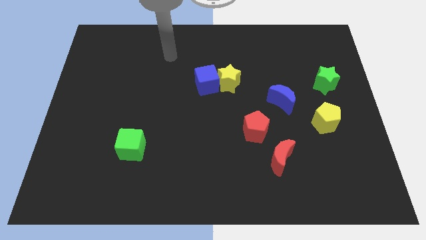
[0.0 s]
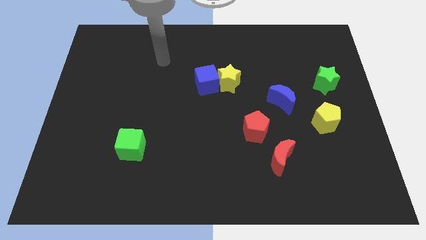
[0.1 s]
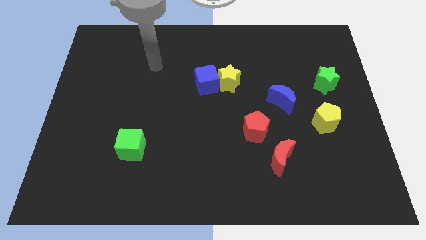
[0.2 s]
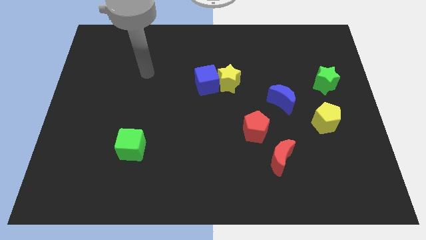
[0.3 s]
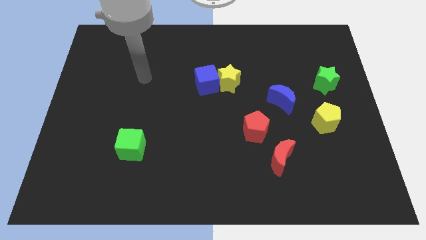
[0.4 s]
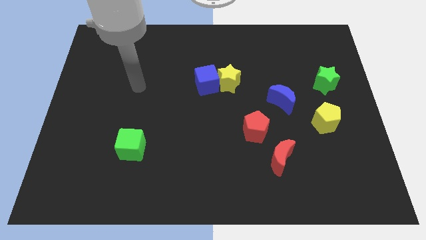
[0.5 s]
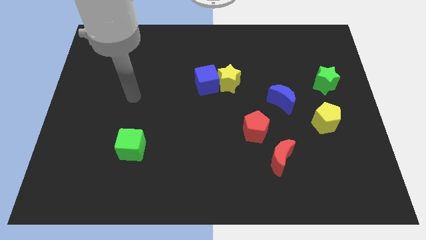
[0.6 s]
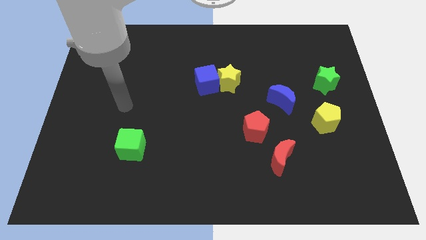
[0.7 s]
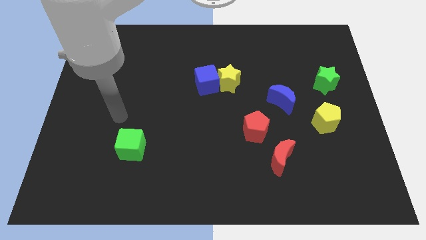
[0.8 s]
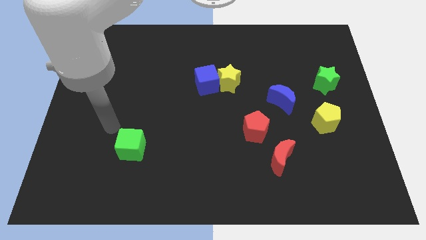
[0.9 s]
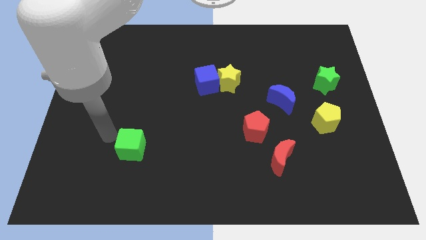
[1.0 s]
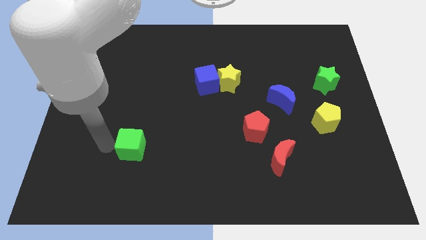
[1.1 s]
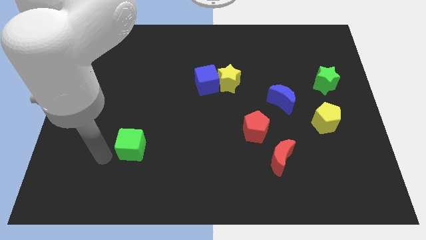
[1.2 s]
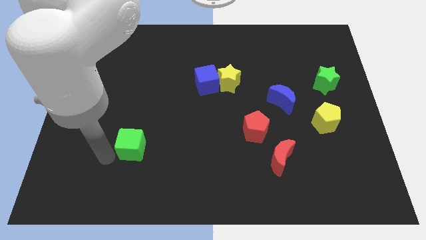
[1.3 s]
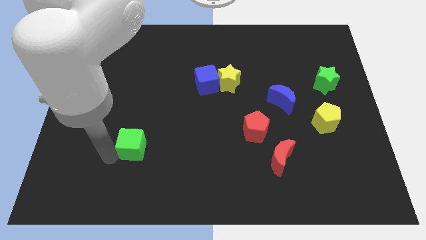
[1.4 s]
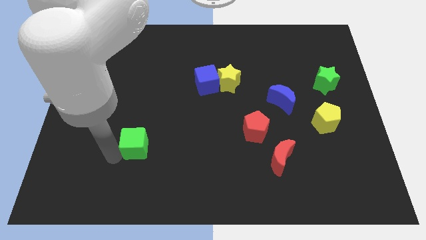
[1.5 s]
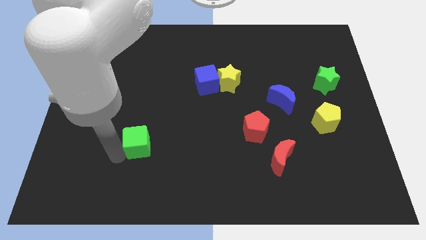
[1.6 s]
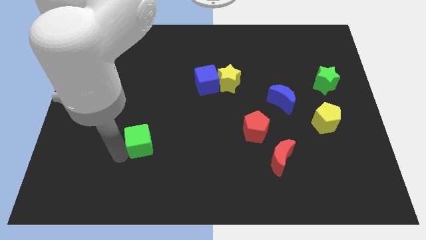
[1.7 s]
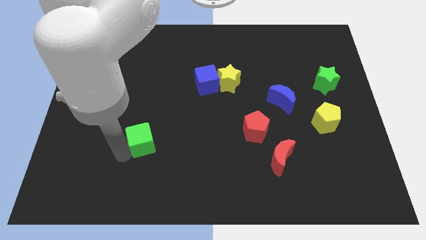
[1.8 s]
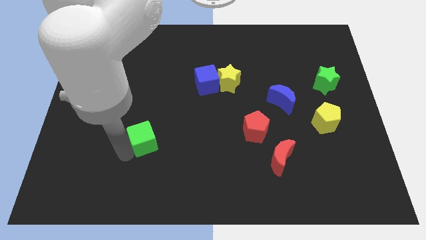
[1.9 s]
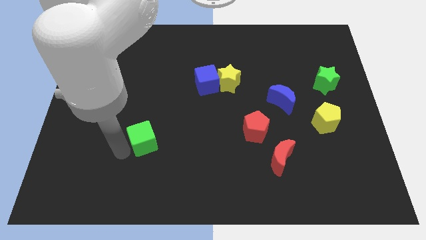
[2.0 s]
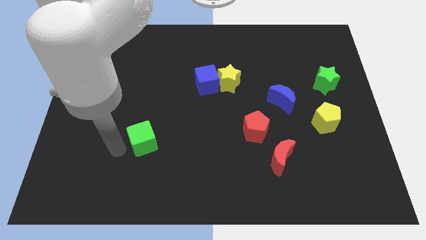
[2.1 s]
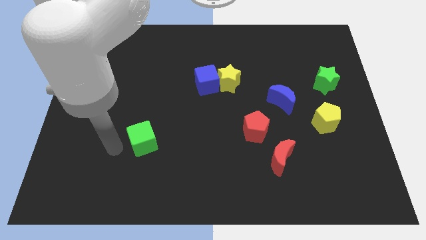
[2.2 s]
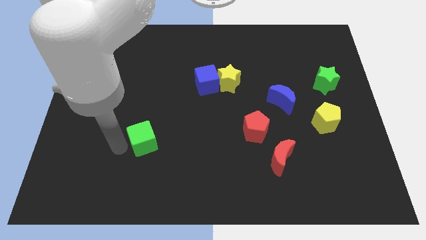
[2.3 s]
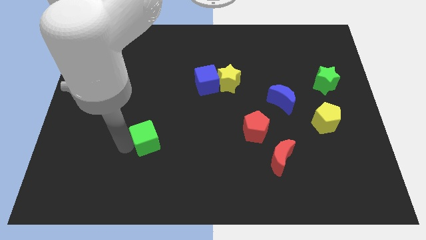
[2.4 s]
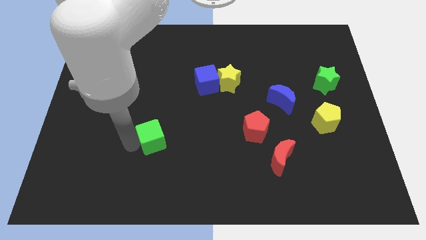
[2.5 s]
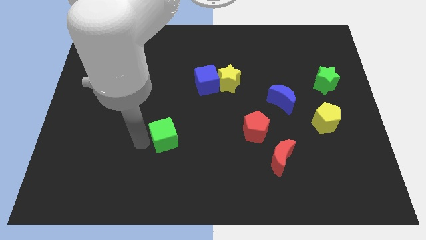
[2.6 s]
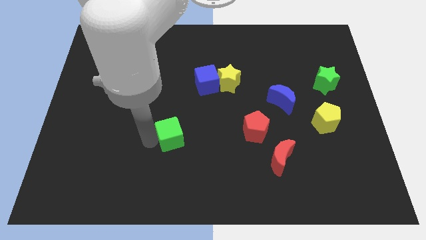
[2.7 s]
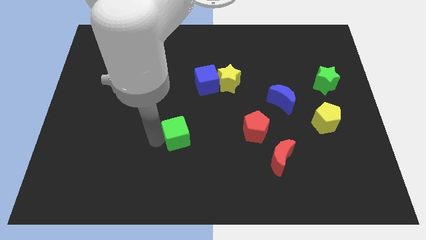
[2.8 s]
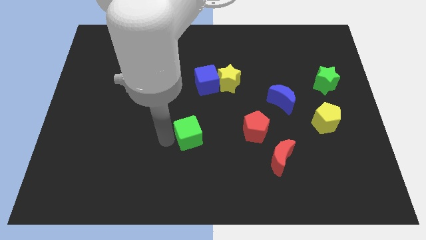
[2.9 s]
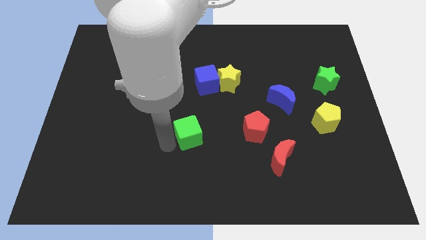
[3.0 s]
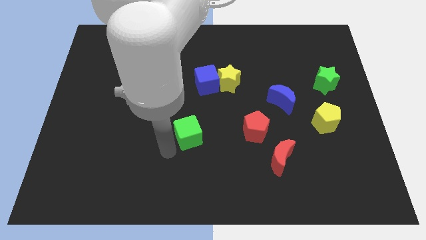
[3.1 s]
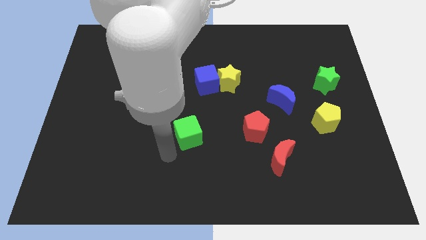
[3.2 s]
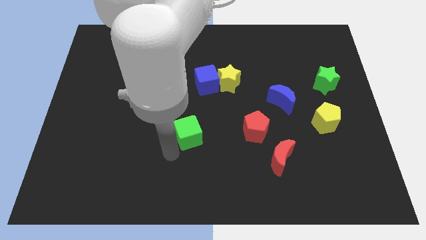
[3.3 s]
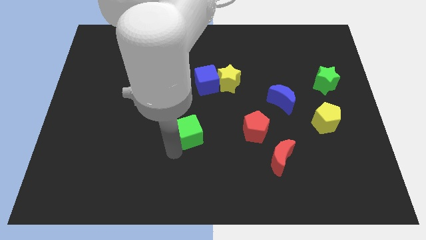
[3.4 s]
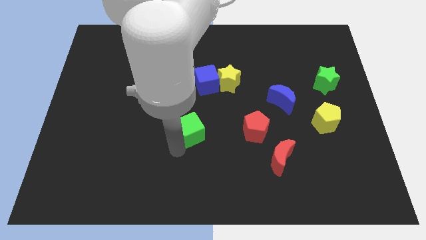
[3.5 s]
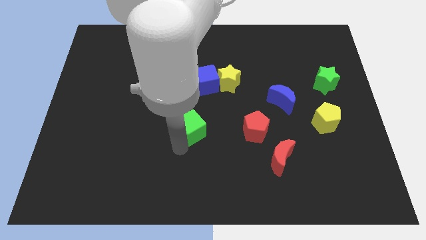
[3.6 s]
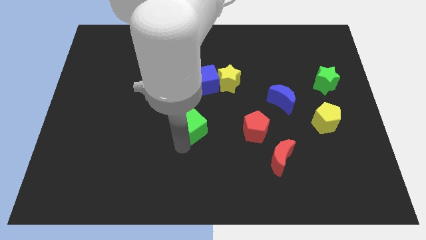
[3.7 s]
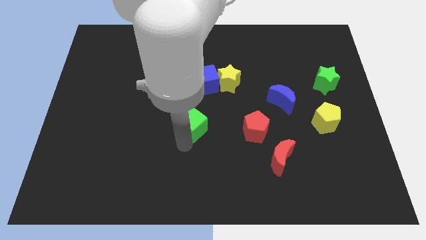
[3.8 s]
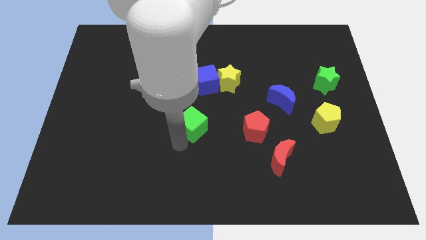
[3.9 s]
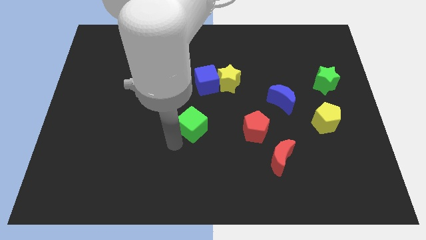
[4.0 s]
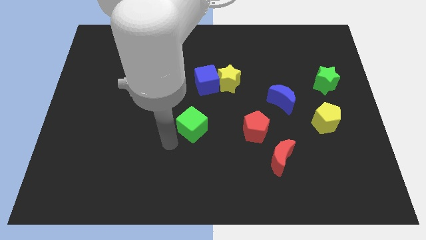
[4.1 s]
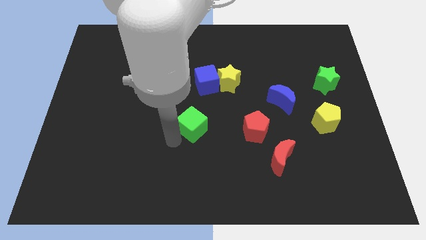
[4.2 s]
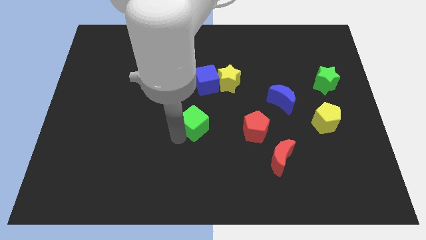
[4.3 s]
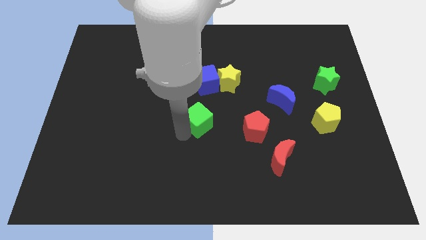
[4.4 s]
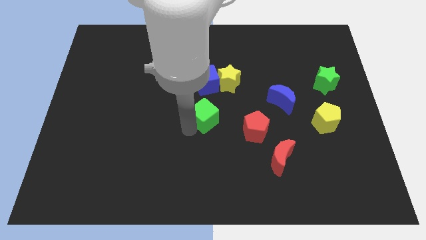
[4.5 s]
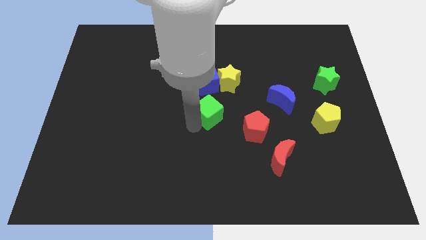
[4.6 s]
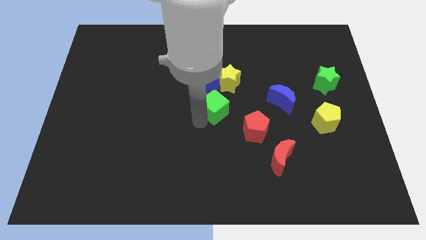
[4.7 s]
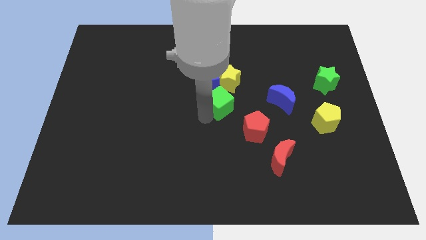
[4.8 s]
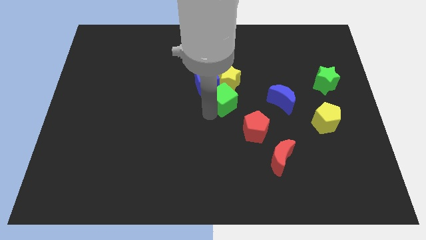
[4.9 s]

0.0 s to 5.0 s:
move the green cube to the yellow star

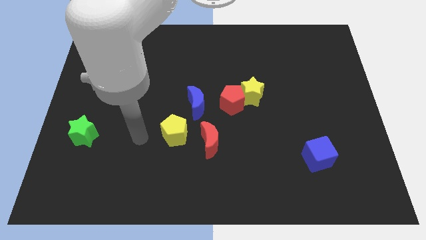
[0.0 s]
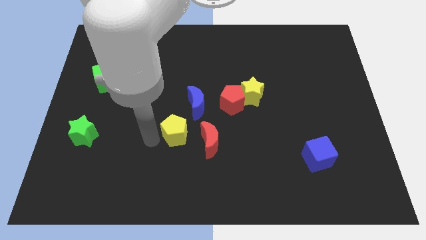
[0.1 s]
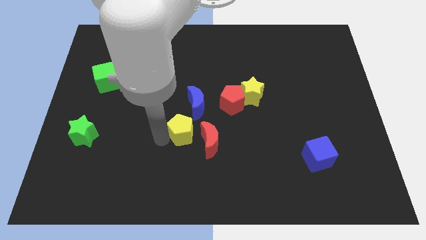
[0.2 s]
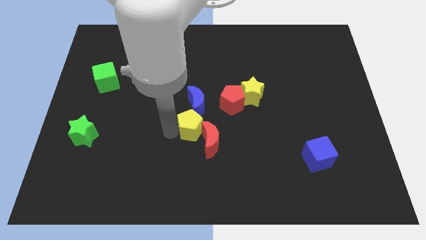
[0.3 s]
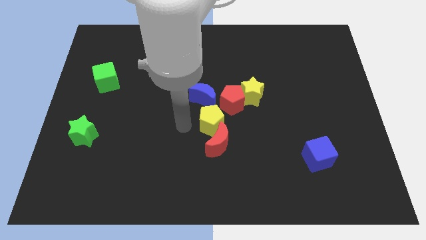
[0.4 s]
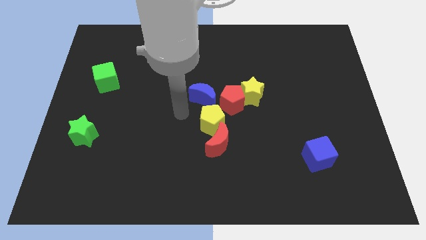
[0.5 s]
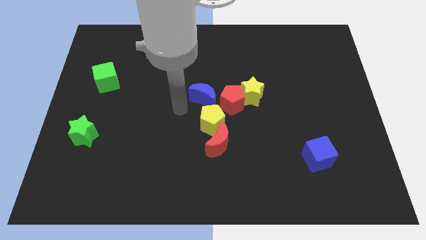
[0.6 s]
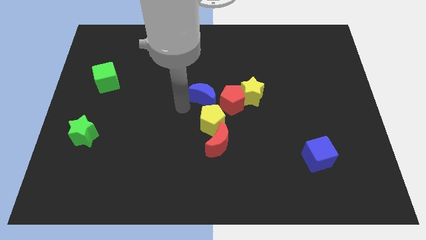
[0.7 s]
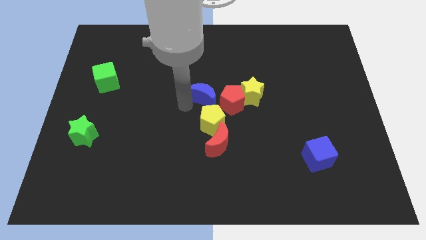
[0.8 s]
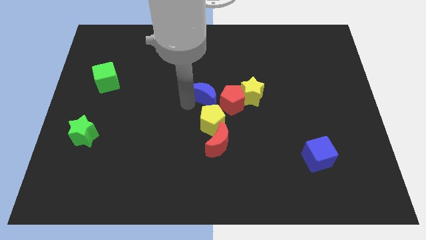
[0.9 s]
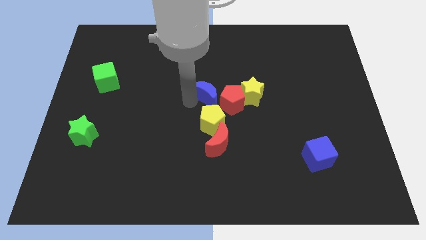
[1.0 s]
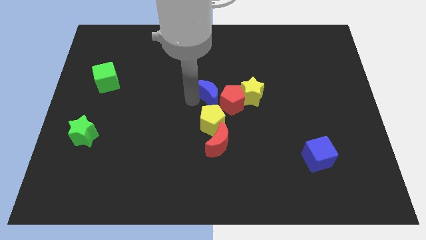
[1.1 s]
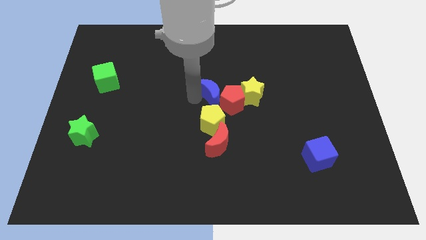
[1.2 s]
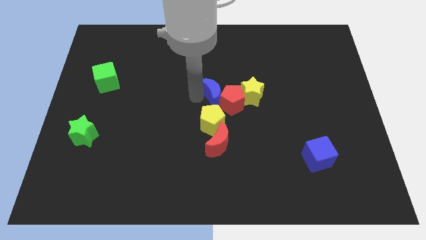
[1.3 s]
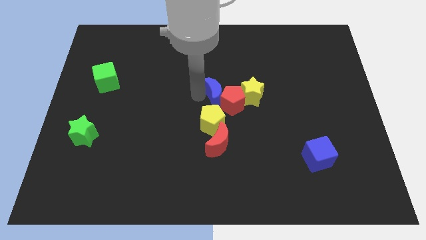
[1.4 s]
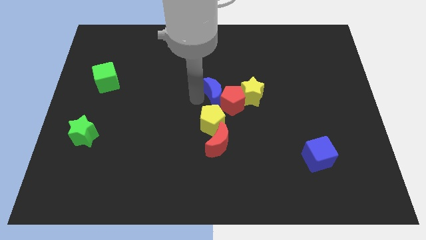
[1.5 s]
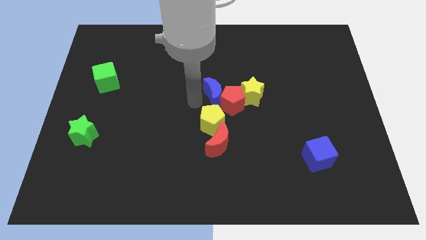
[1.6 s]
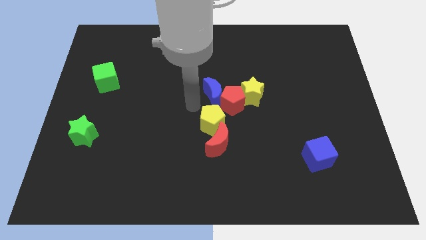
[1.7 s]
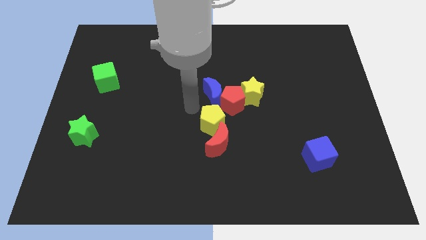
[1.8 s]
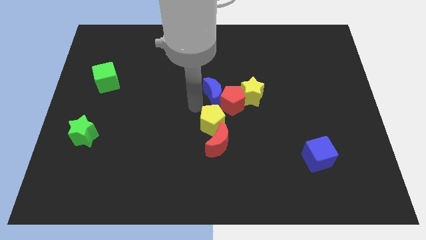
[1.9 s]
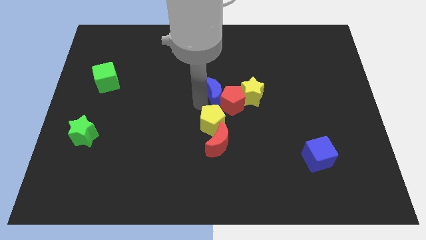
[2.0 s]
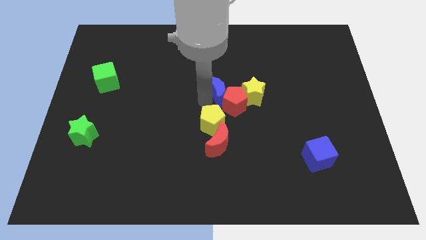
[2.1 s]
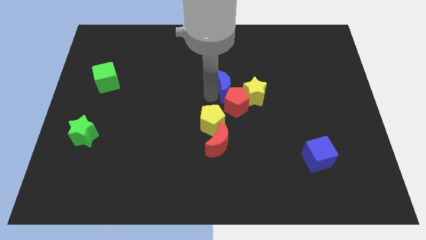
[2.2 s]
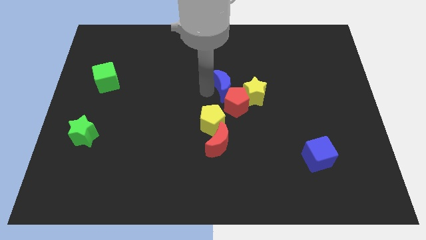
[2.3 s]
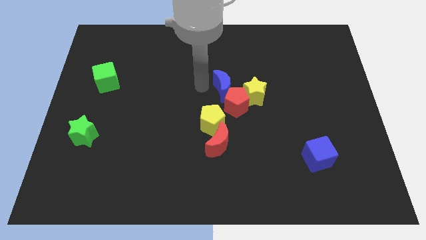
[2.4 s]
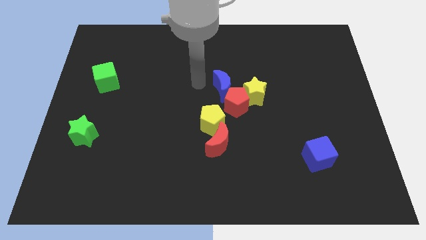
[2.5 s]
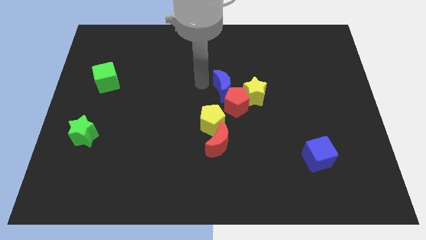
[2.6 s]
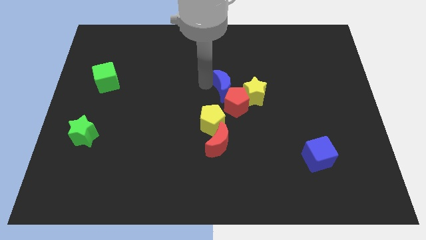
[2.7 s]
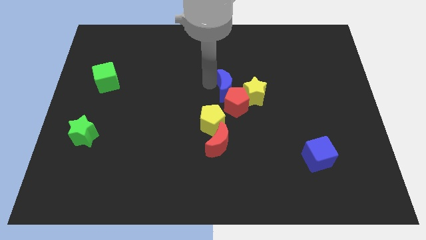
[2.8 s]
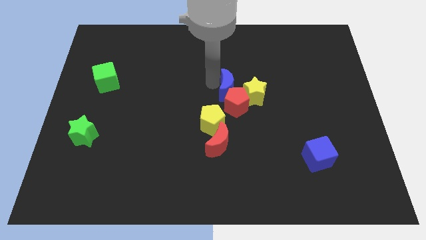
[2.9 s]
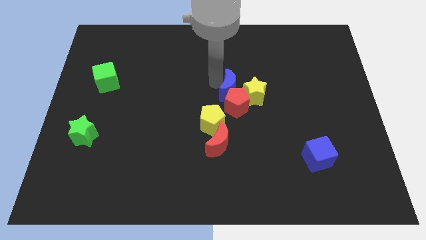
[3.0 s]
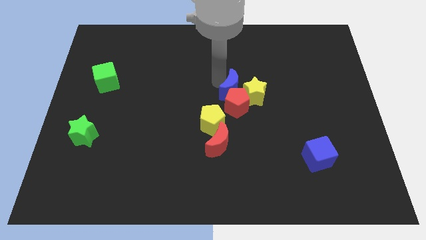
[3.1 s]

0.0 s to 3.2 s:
move the blue moon next to the yellow star
